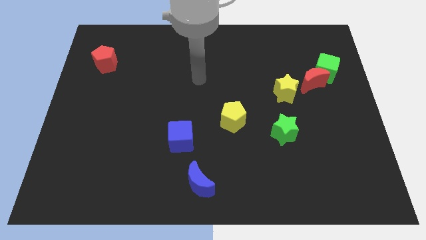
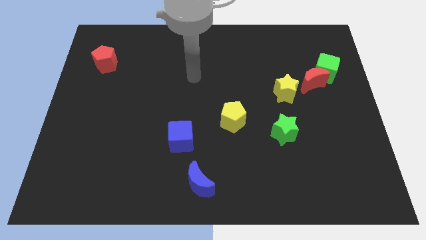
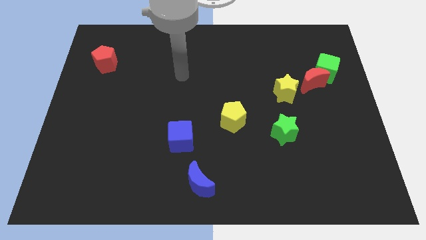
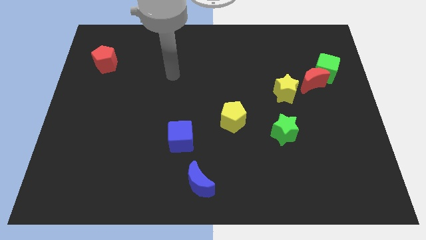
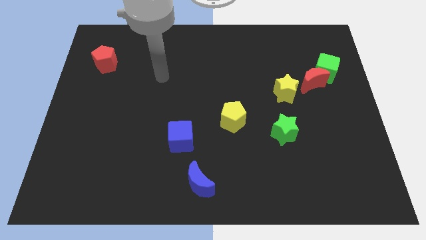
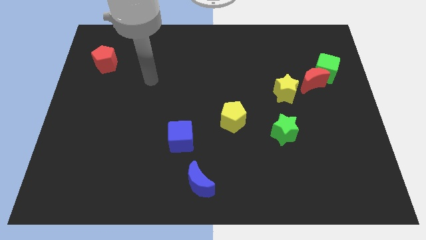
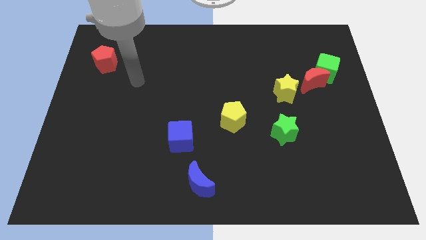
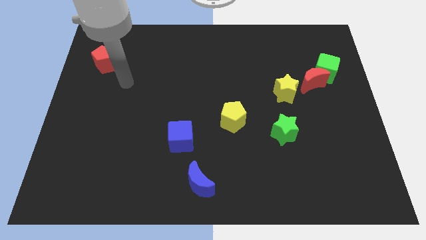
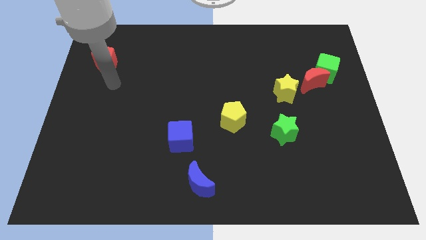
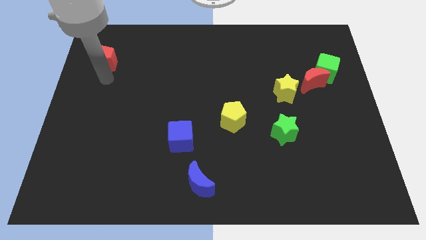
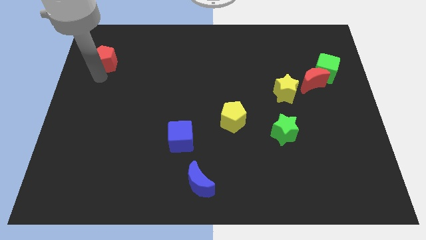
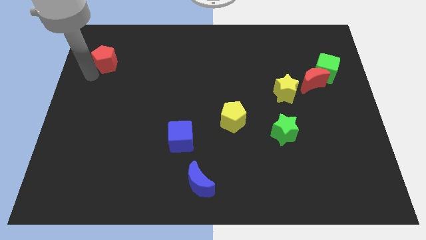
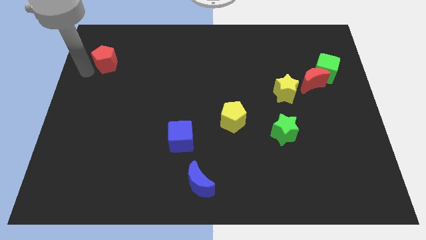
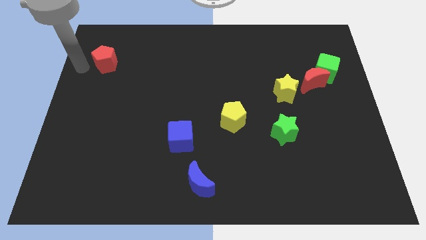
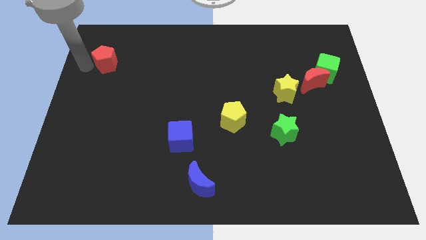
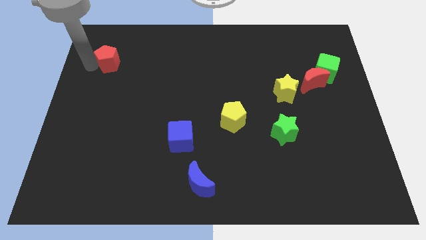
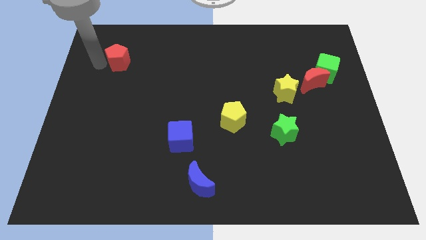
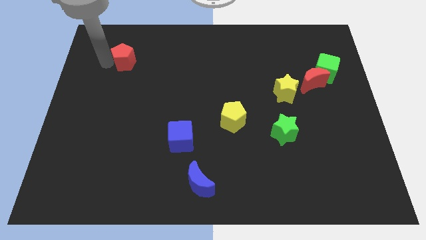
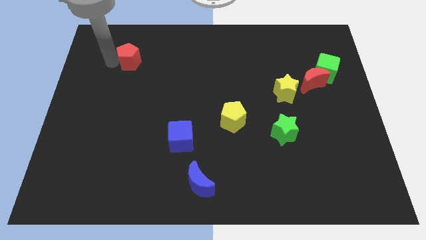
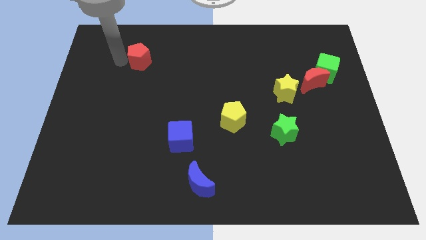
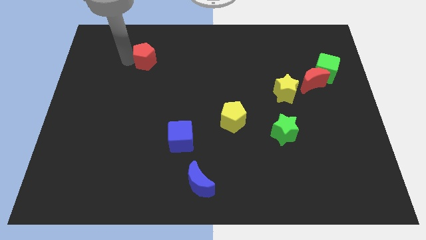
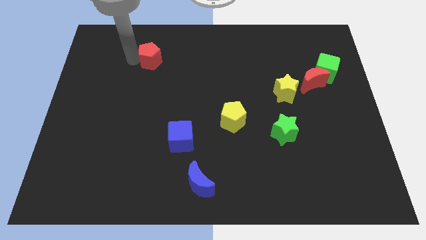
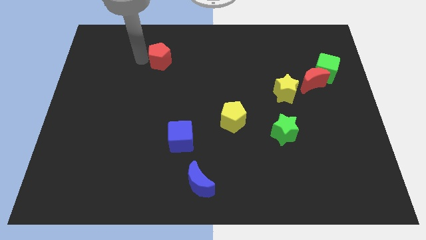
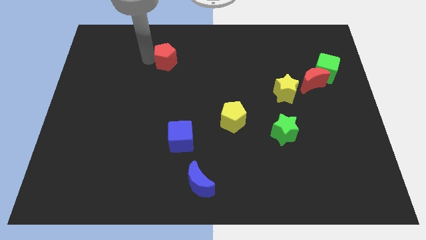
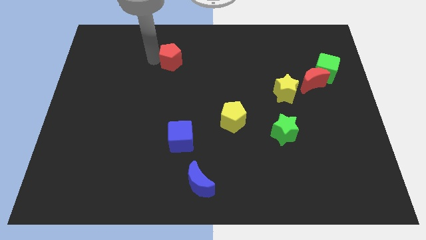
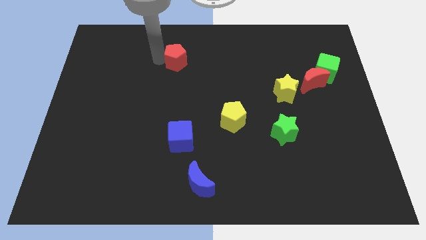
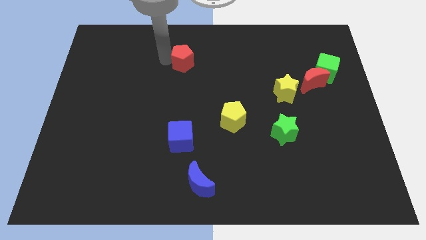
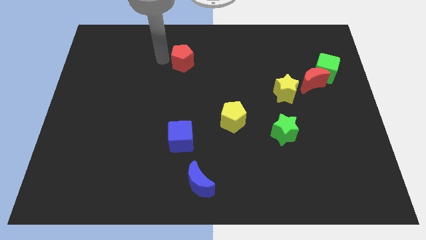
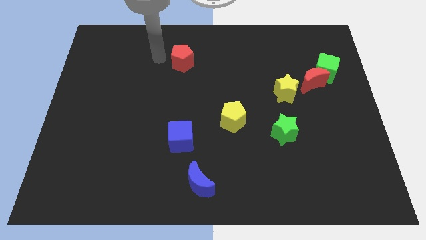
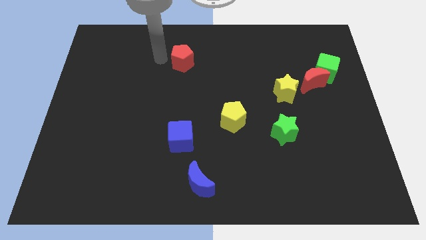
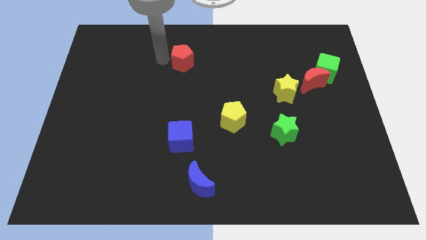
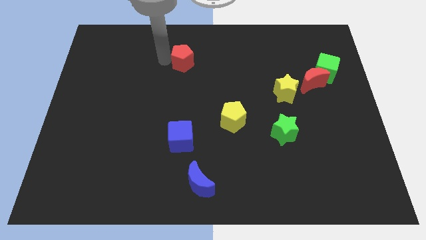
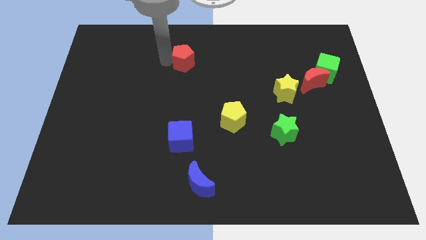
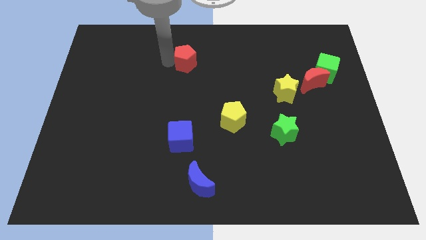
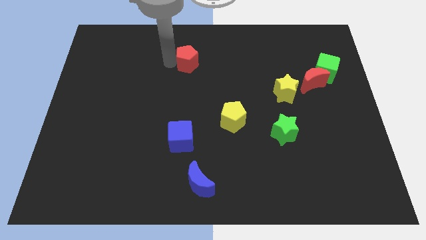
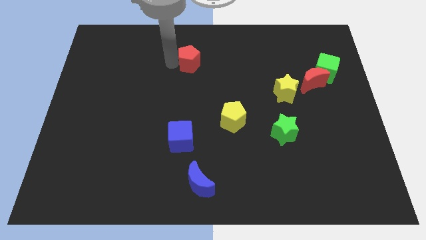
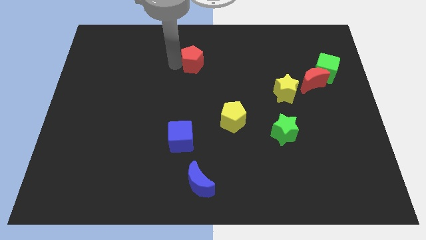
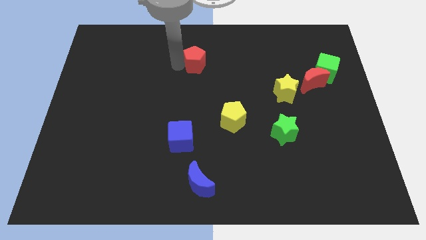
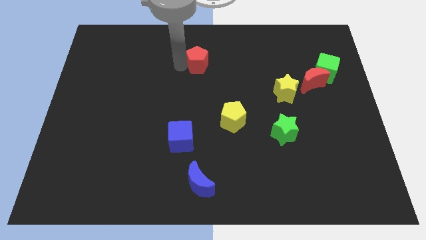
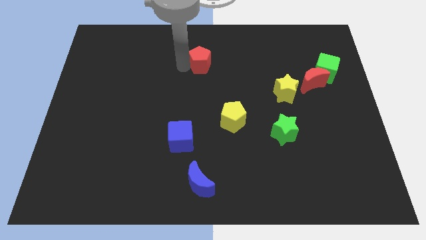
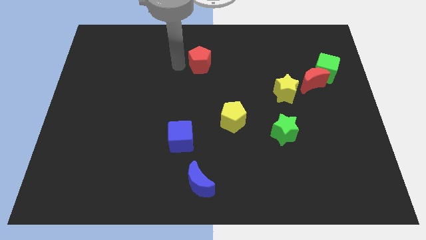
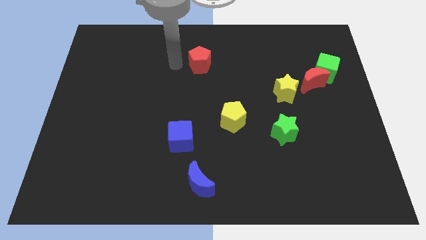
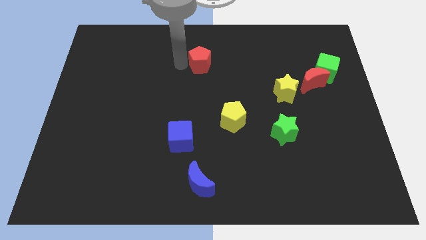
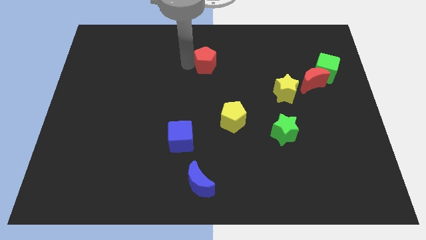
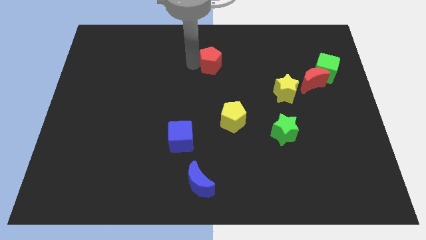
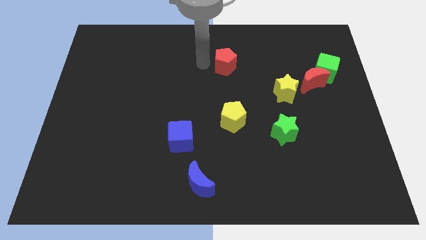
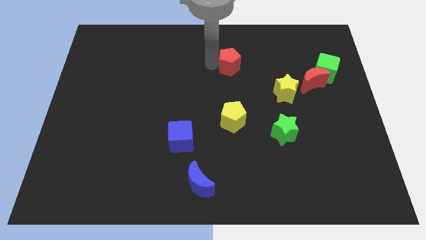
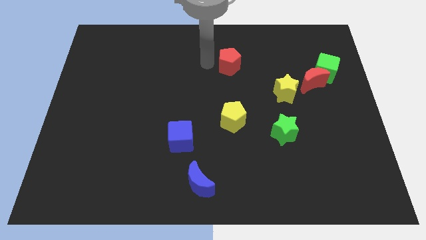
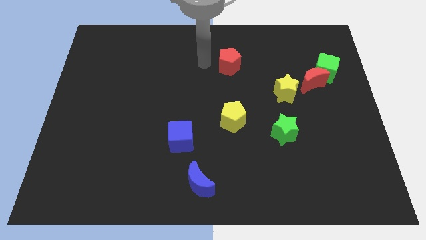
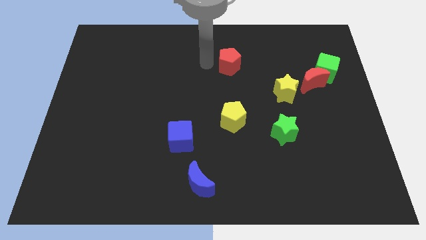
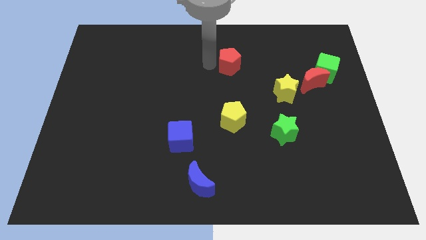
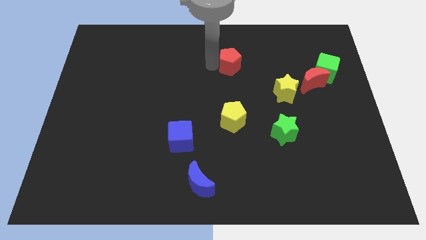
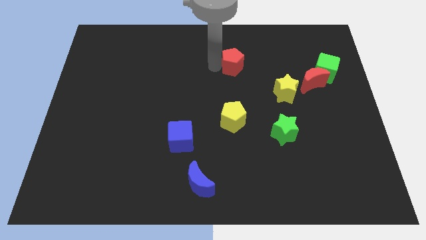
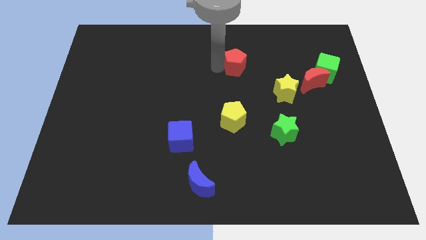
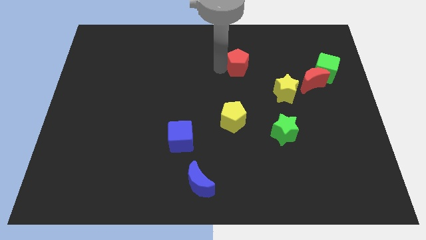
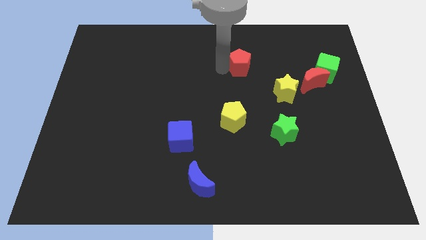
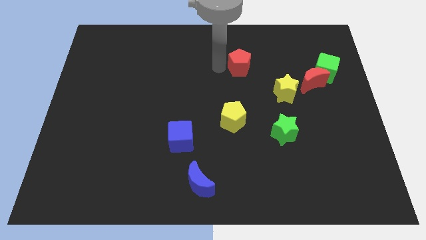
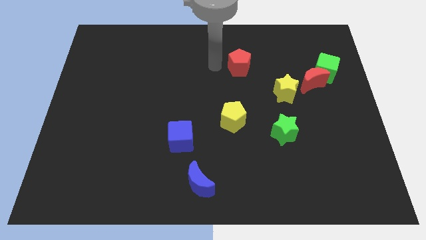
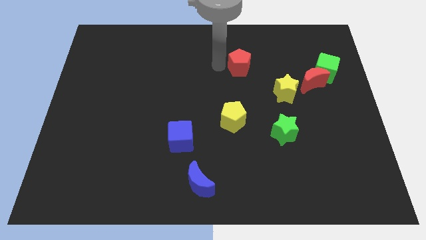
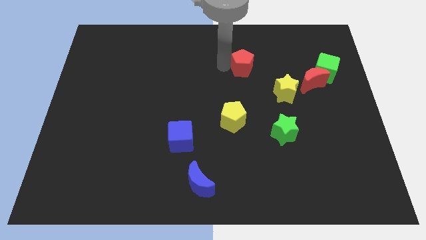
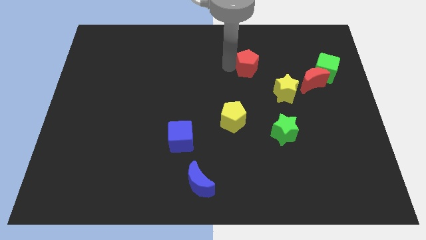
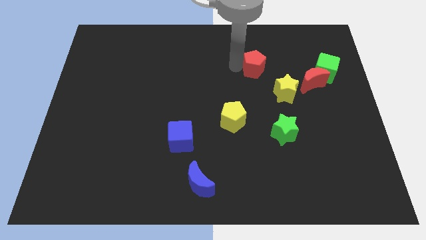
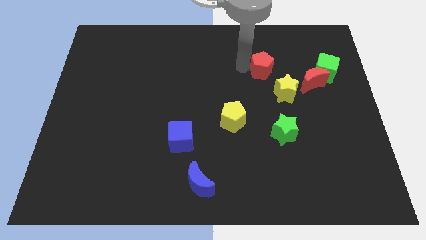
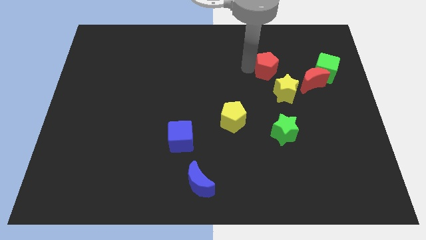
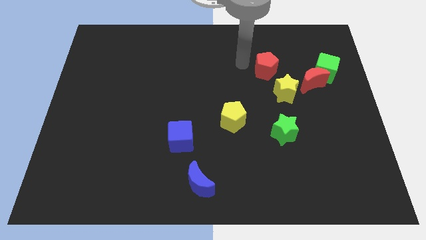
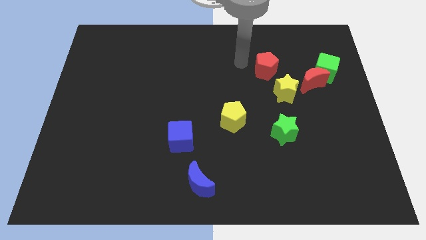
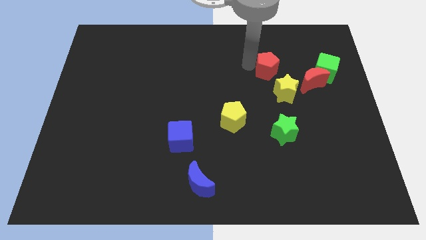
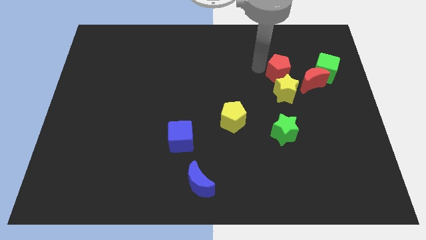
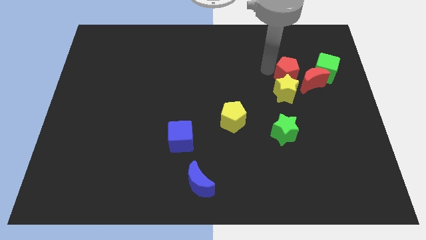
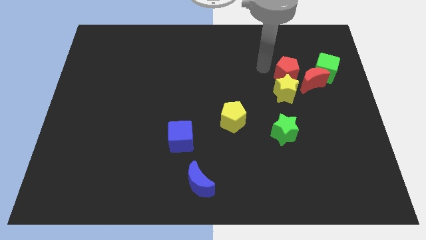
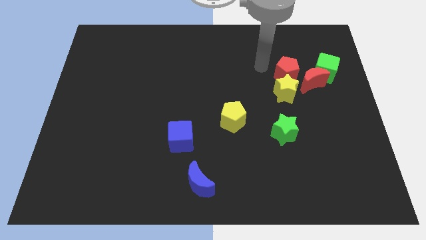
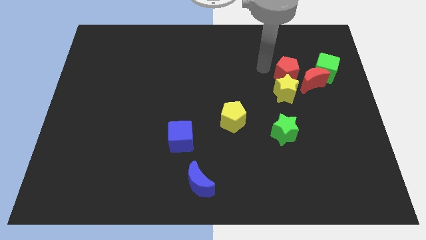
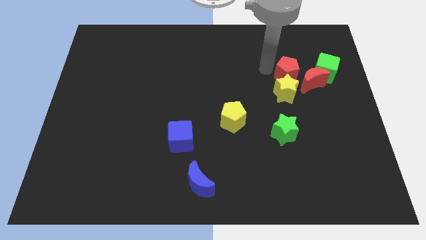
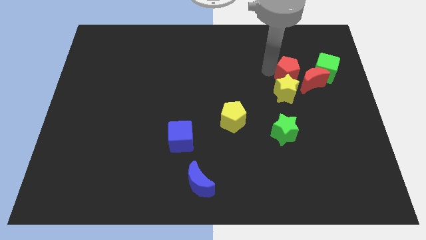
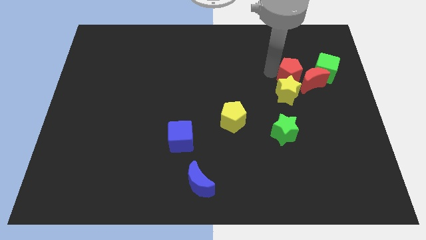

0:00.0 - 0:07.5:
push the red pentagon towards the red moon
